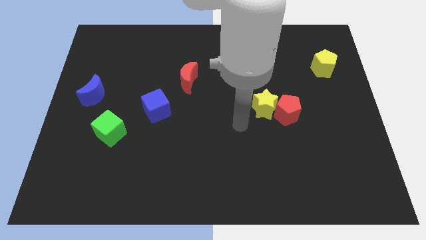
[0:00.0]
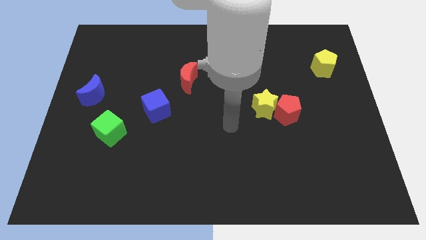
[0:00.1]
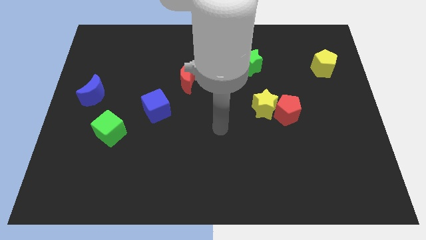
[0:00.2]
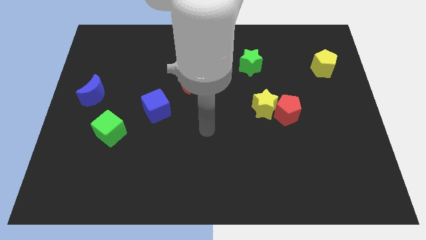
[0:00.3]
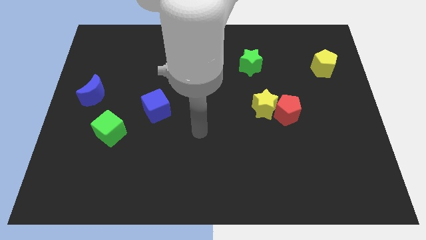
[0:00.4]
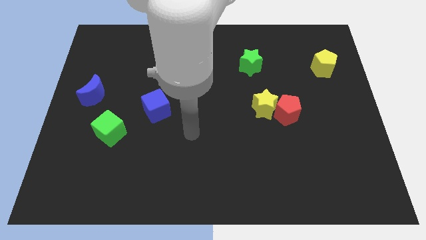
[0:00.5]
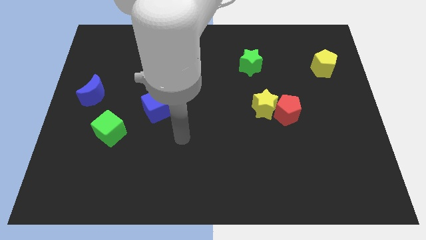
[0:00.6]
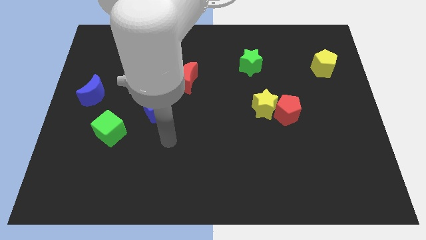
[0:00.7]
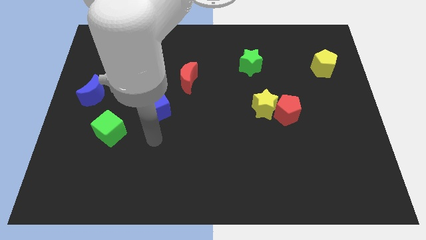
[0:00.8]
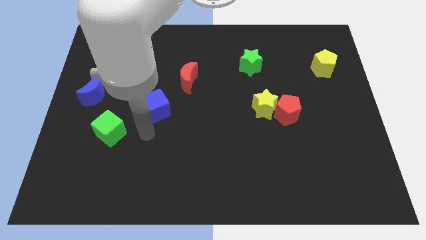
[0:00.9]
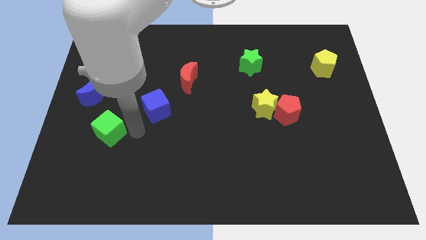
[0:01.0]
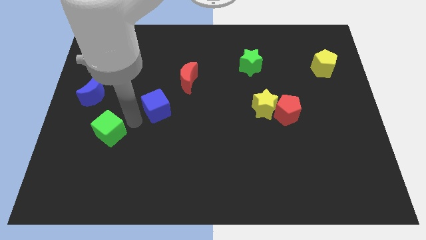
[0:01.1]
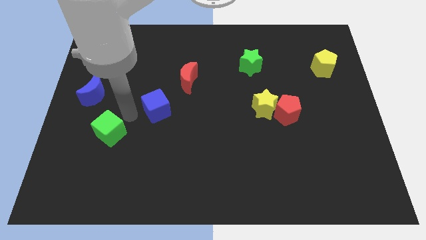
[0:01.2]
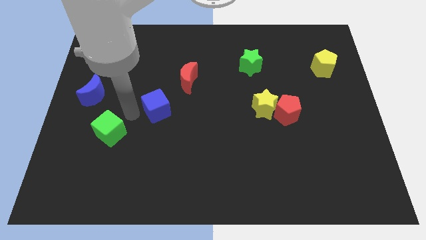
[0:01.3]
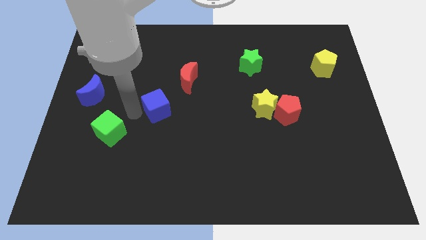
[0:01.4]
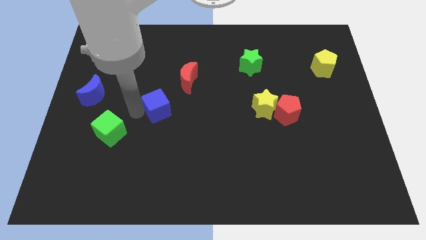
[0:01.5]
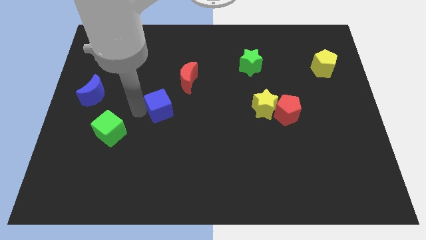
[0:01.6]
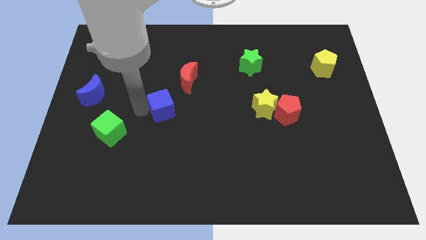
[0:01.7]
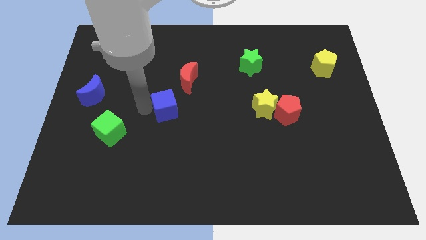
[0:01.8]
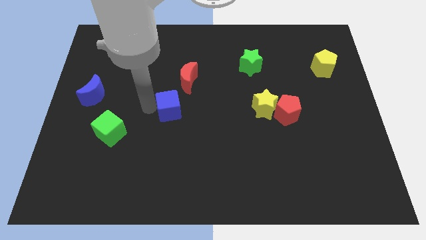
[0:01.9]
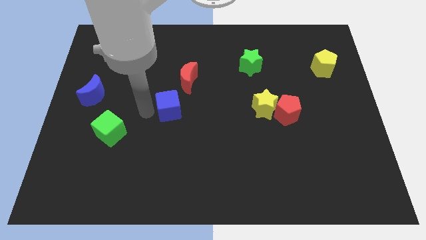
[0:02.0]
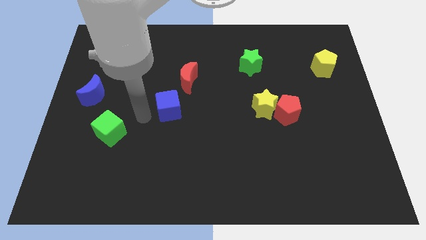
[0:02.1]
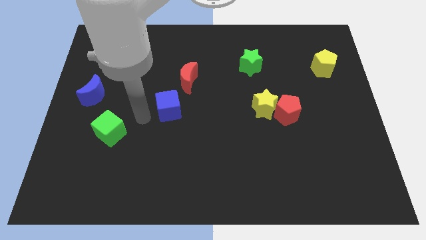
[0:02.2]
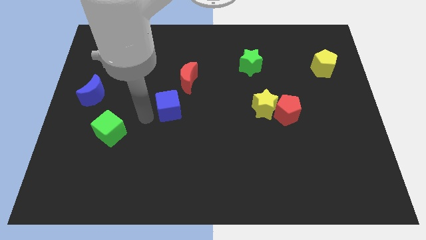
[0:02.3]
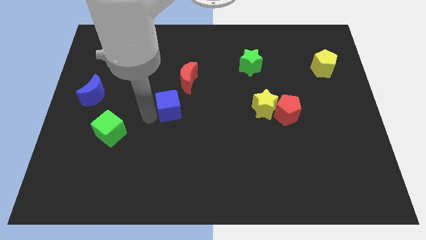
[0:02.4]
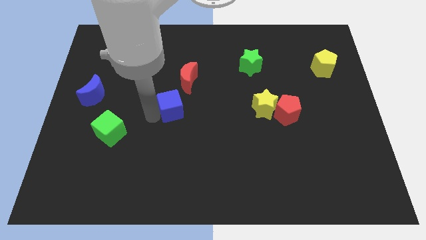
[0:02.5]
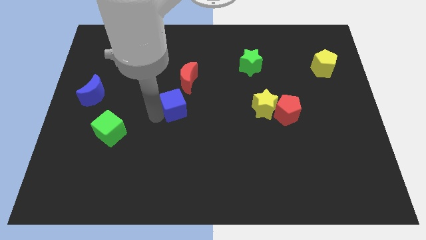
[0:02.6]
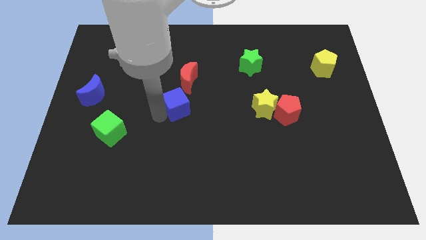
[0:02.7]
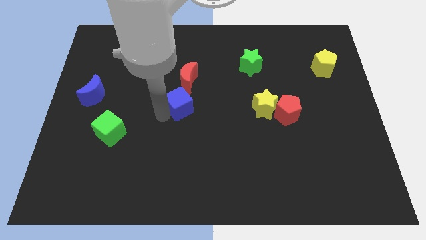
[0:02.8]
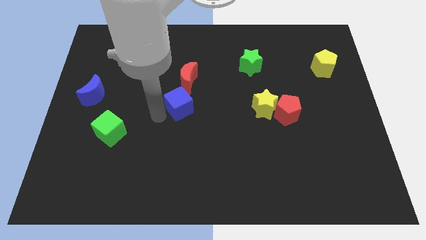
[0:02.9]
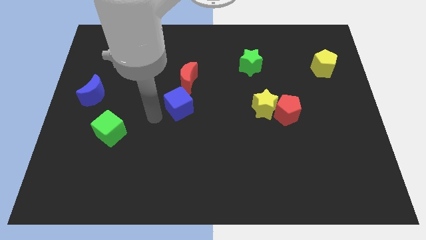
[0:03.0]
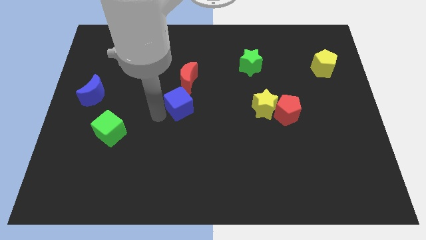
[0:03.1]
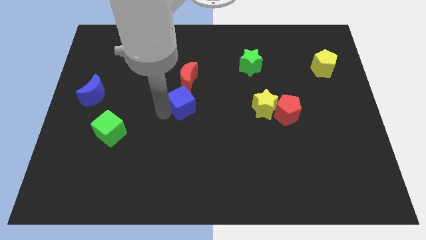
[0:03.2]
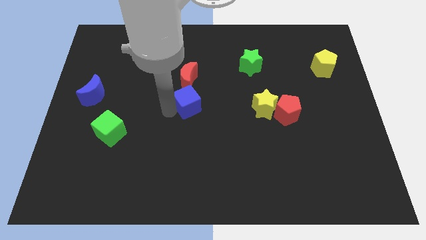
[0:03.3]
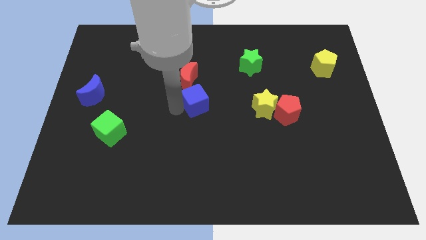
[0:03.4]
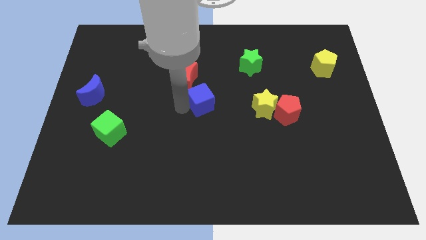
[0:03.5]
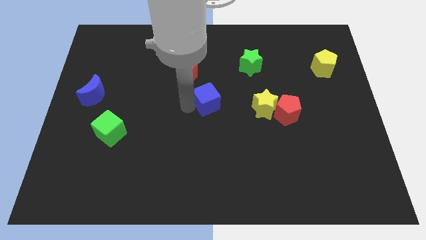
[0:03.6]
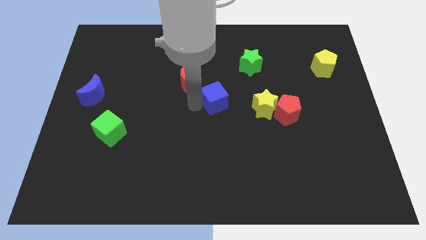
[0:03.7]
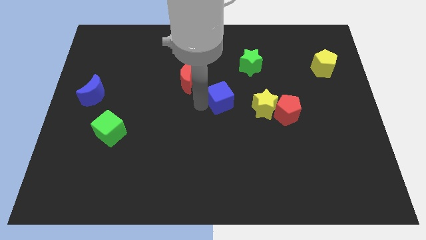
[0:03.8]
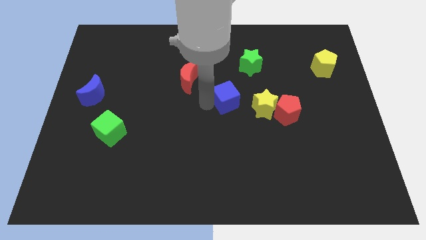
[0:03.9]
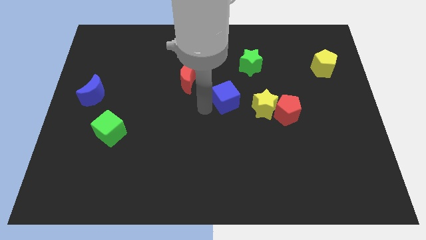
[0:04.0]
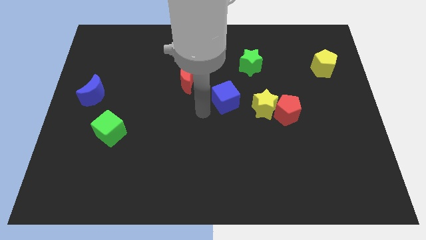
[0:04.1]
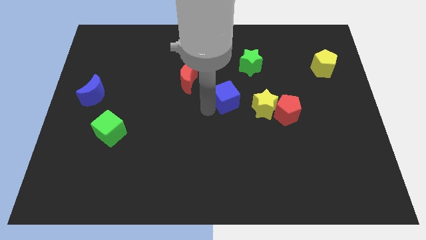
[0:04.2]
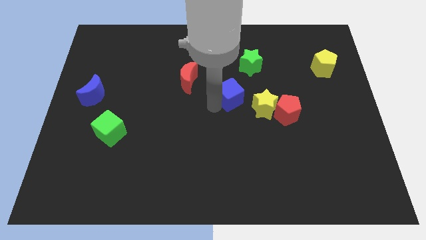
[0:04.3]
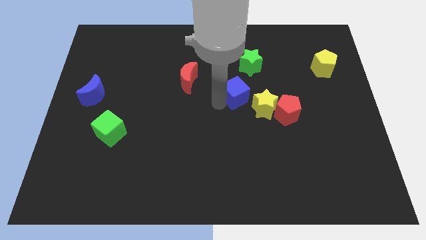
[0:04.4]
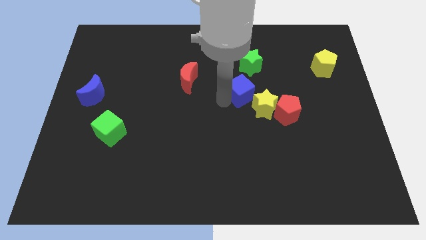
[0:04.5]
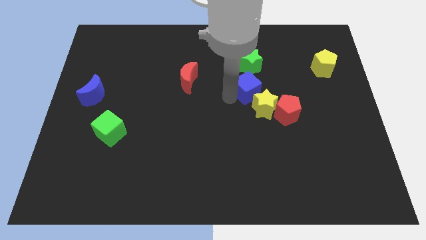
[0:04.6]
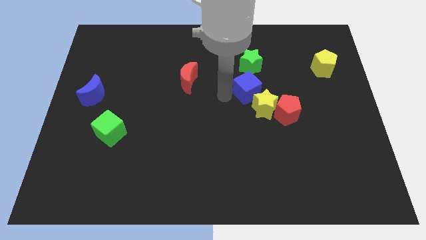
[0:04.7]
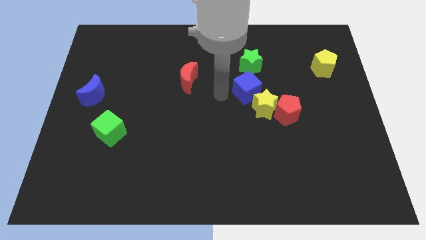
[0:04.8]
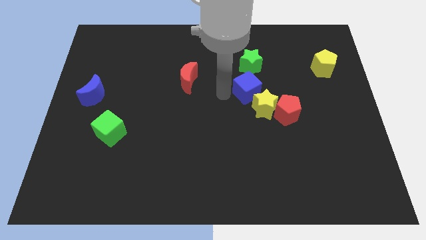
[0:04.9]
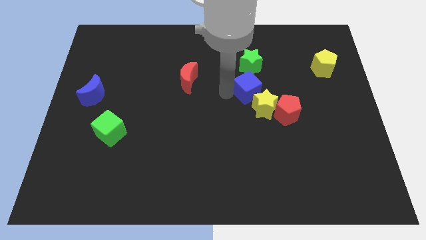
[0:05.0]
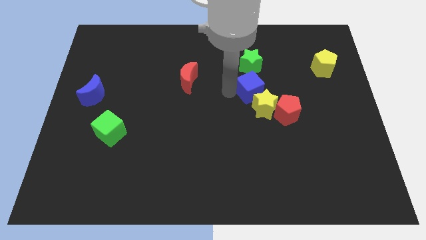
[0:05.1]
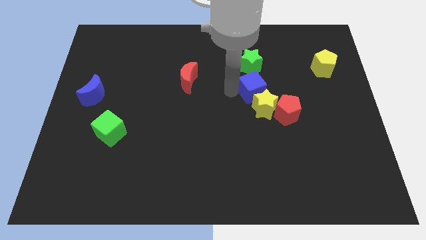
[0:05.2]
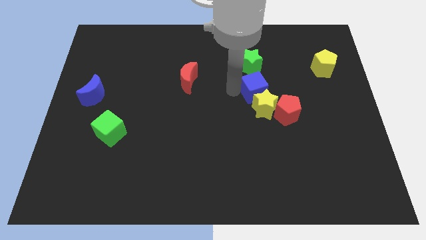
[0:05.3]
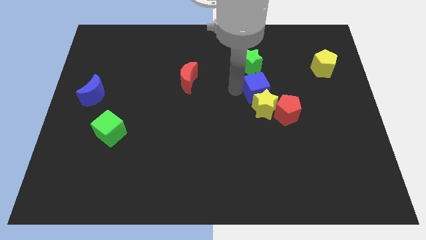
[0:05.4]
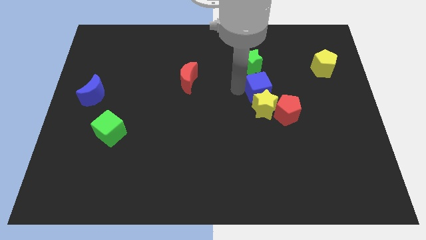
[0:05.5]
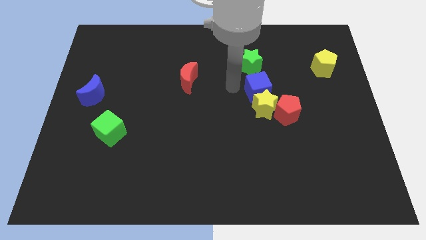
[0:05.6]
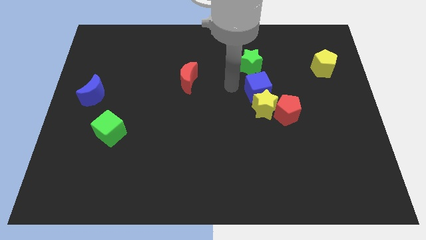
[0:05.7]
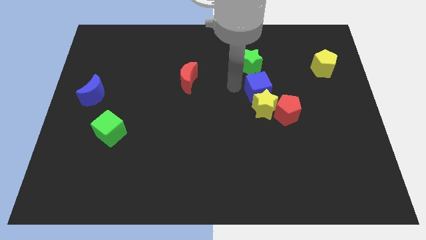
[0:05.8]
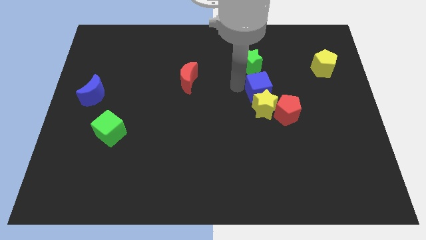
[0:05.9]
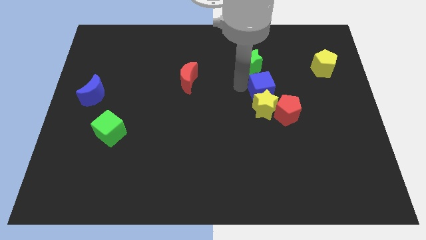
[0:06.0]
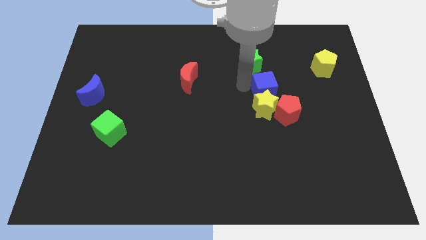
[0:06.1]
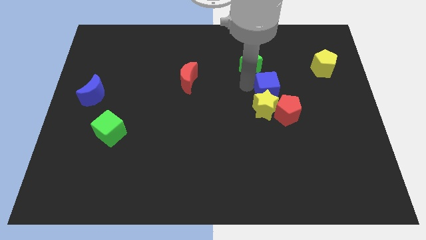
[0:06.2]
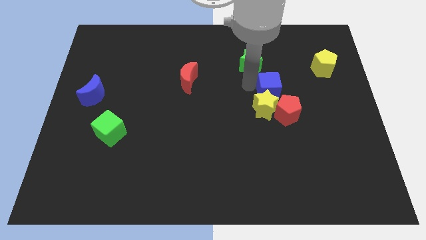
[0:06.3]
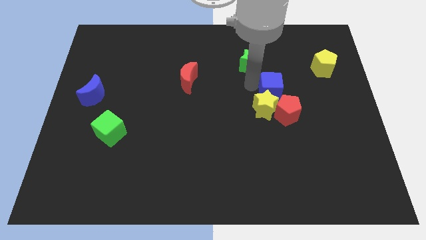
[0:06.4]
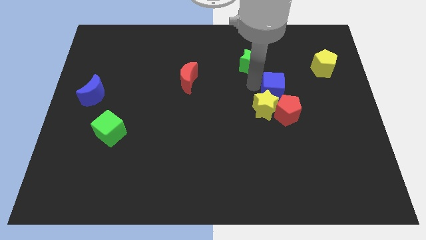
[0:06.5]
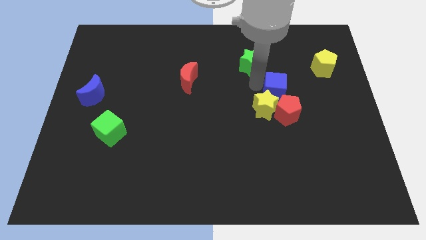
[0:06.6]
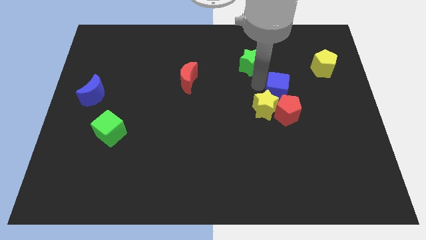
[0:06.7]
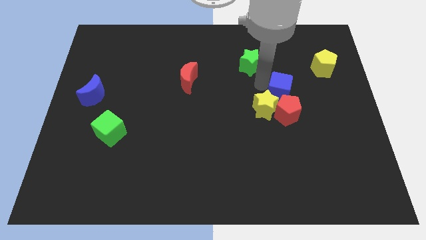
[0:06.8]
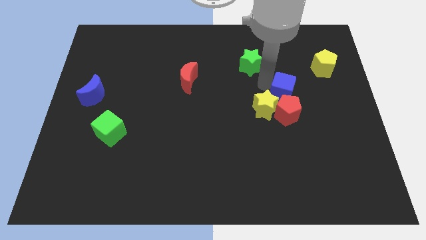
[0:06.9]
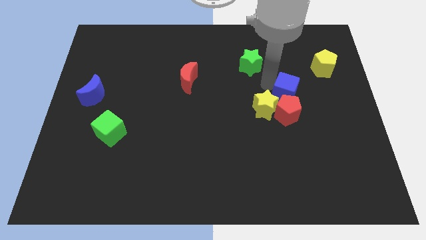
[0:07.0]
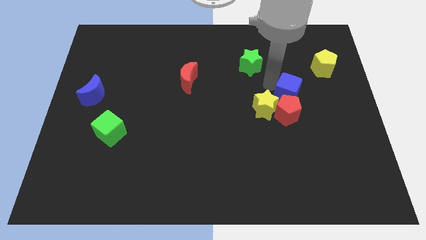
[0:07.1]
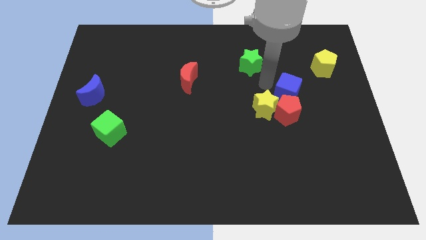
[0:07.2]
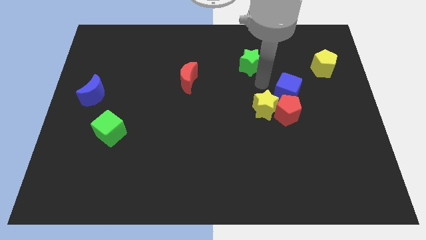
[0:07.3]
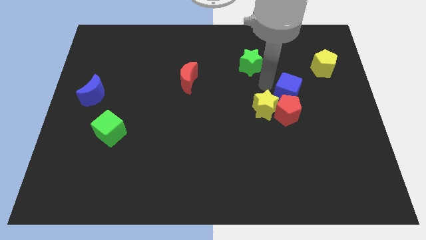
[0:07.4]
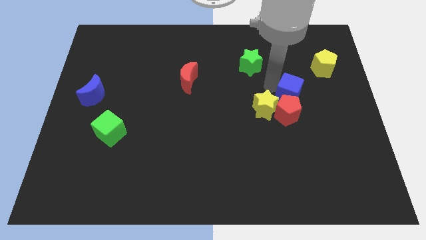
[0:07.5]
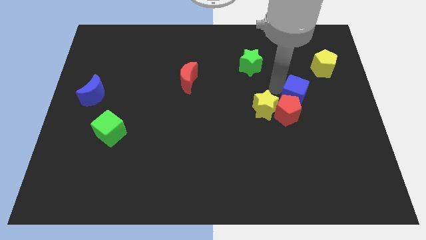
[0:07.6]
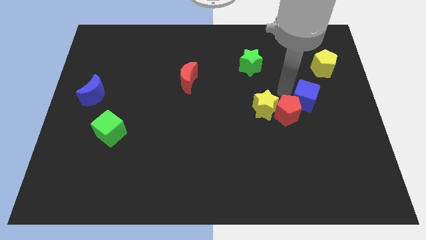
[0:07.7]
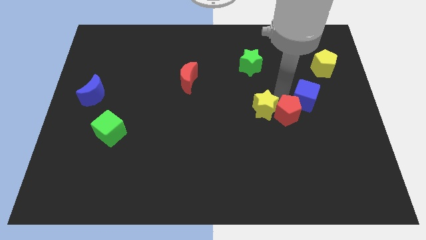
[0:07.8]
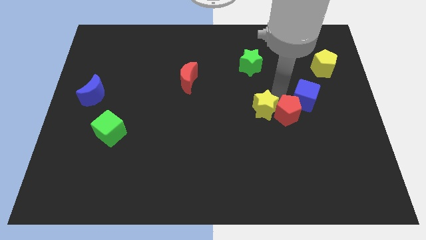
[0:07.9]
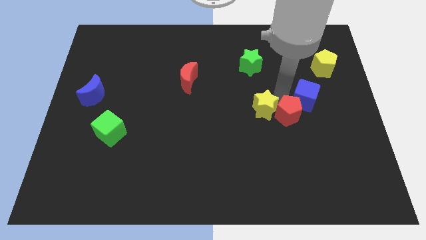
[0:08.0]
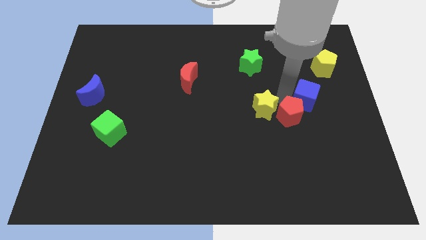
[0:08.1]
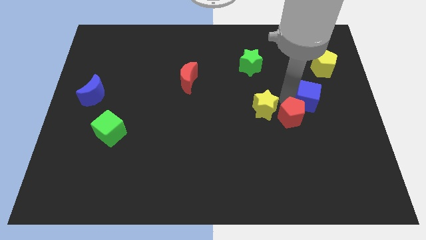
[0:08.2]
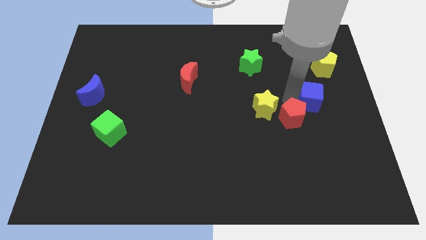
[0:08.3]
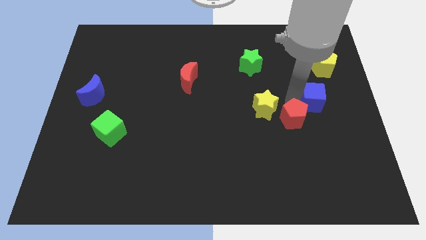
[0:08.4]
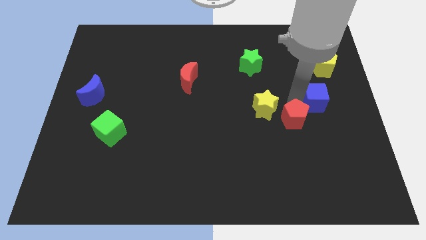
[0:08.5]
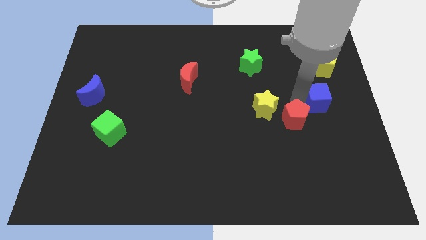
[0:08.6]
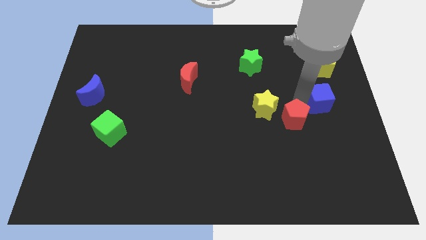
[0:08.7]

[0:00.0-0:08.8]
slide the blue cube to the center right
